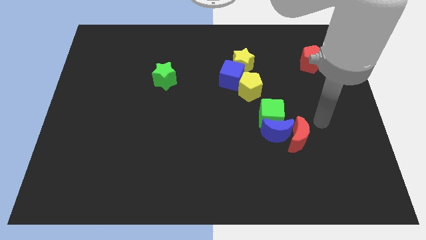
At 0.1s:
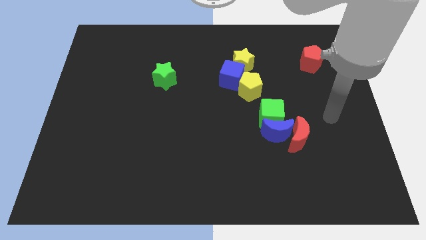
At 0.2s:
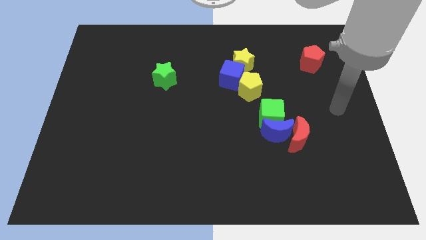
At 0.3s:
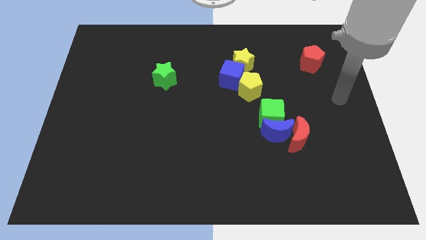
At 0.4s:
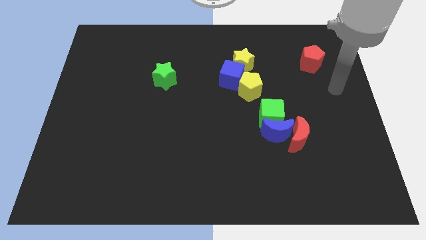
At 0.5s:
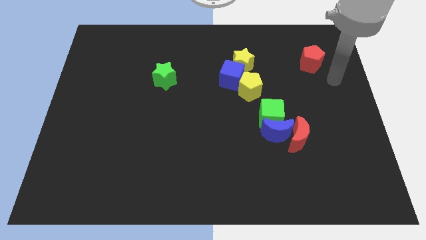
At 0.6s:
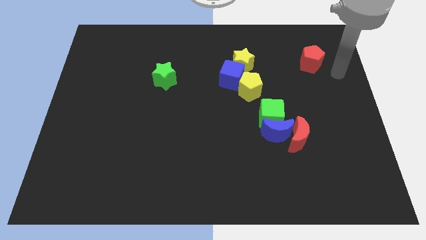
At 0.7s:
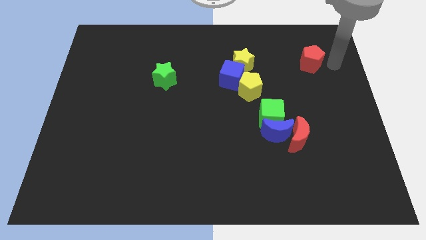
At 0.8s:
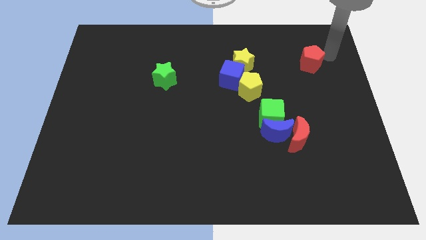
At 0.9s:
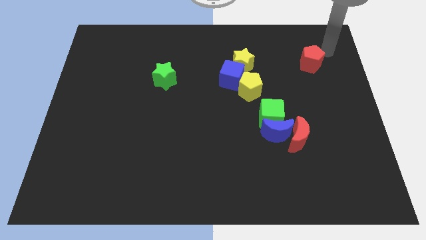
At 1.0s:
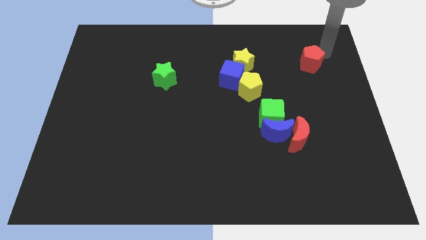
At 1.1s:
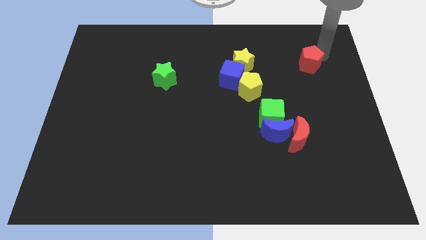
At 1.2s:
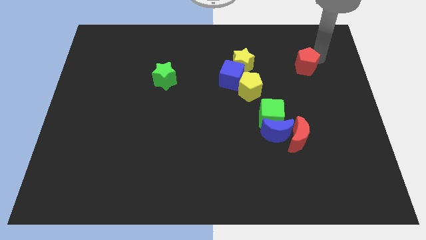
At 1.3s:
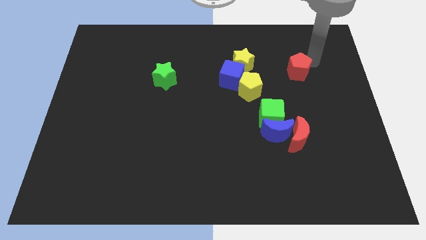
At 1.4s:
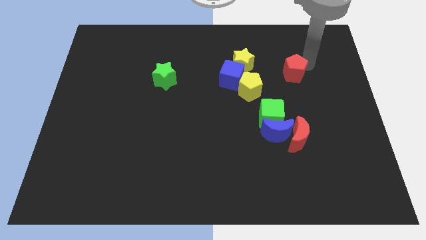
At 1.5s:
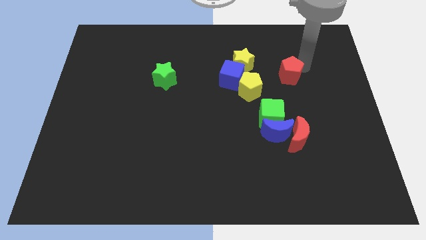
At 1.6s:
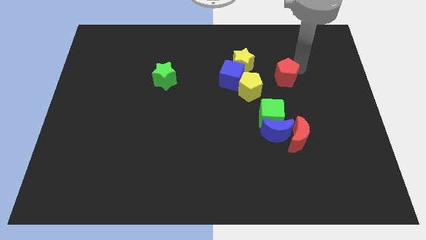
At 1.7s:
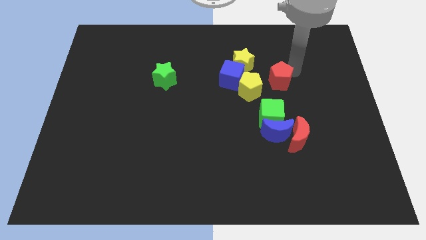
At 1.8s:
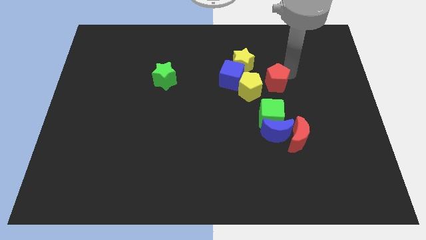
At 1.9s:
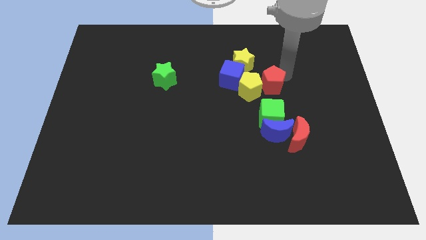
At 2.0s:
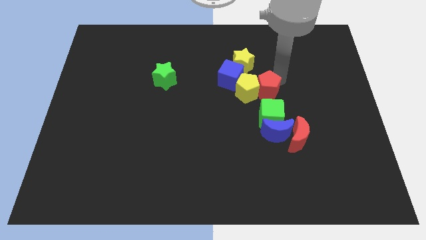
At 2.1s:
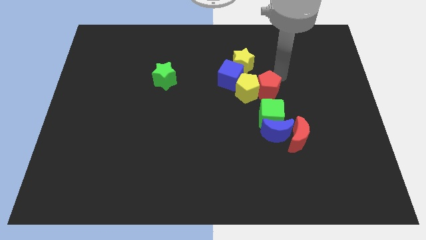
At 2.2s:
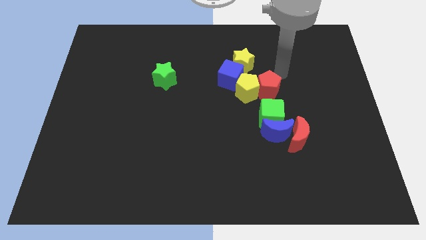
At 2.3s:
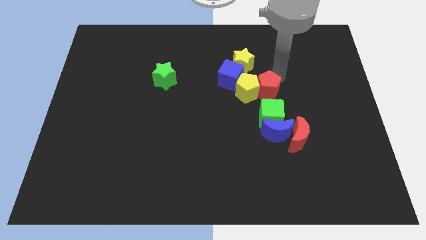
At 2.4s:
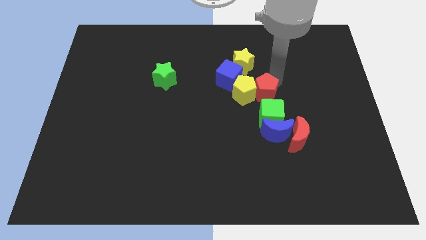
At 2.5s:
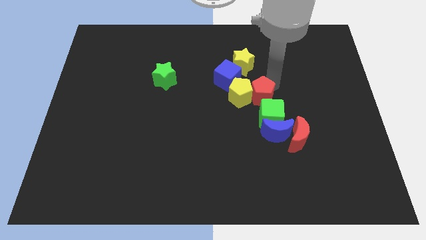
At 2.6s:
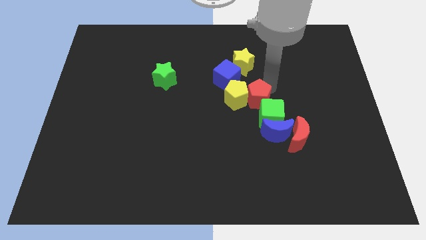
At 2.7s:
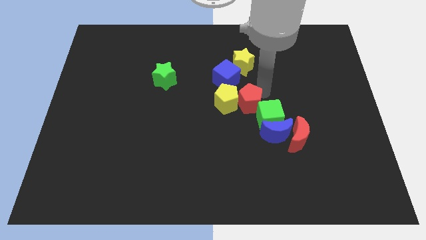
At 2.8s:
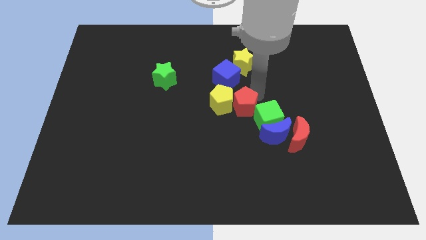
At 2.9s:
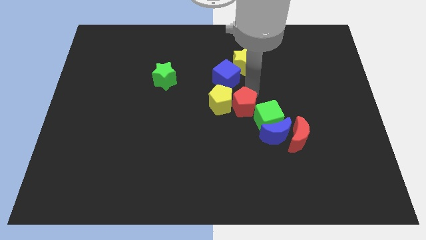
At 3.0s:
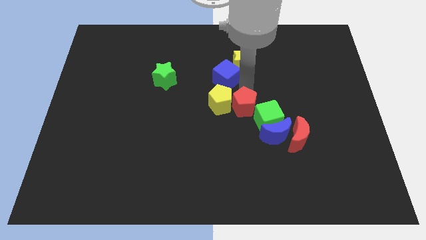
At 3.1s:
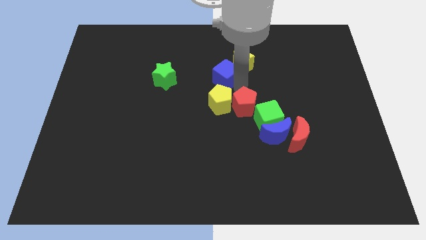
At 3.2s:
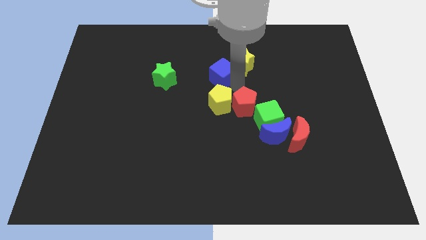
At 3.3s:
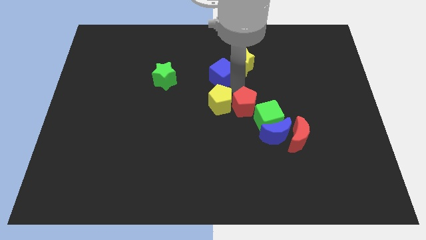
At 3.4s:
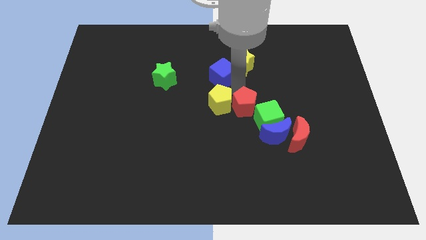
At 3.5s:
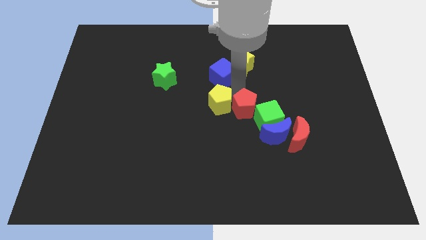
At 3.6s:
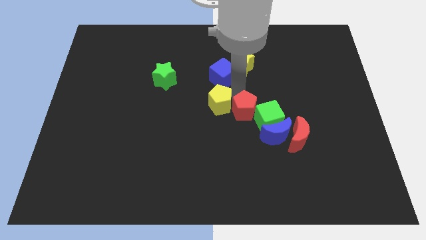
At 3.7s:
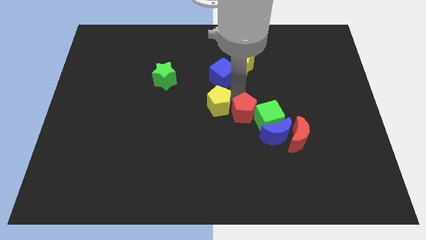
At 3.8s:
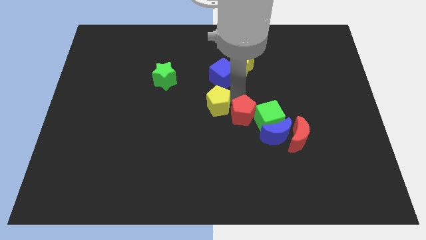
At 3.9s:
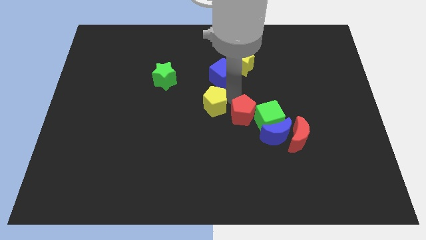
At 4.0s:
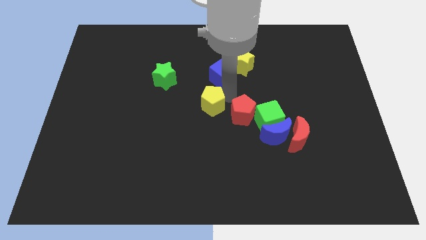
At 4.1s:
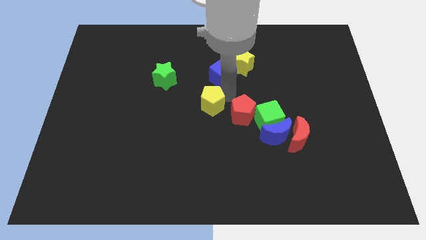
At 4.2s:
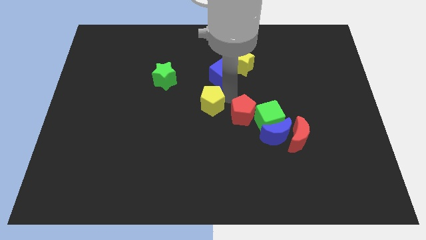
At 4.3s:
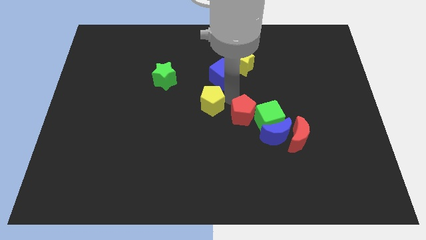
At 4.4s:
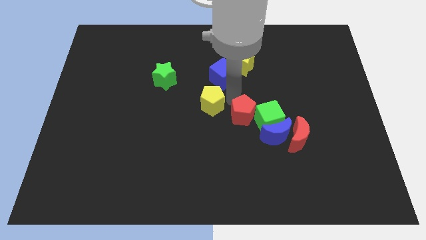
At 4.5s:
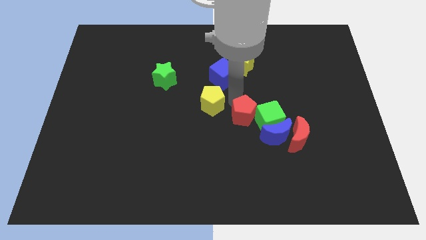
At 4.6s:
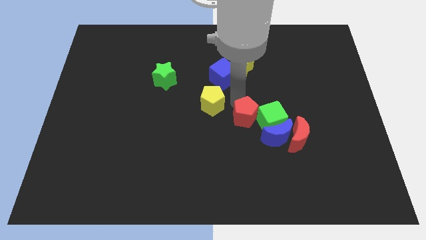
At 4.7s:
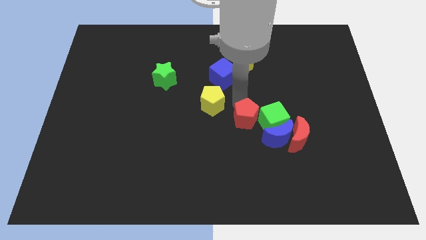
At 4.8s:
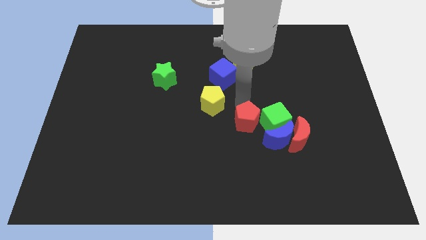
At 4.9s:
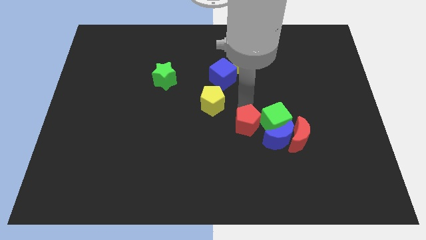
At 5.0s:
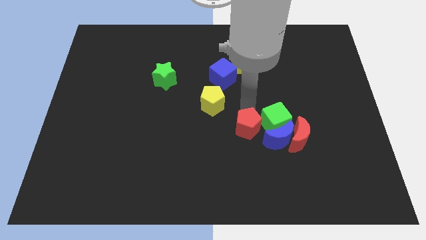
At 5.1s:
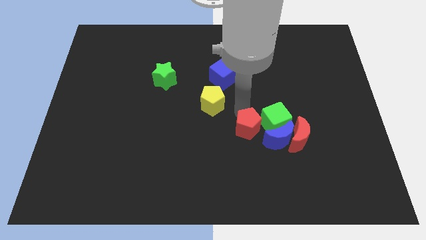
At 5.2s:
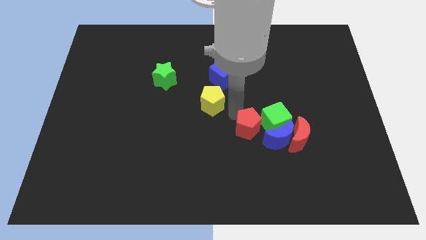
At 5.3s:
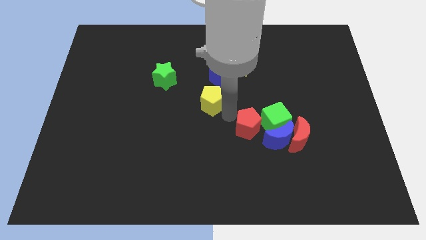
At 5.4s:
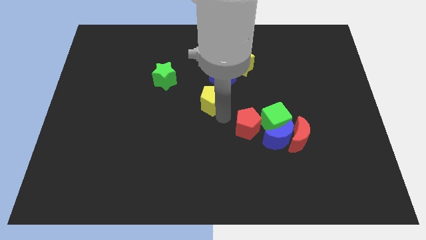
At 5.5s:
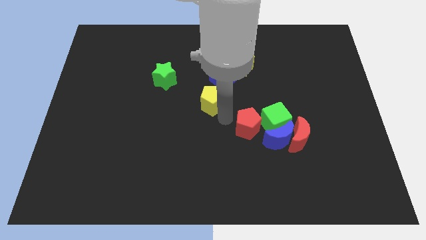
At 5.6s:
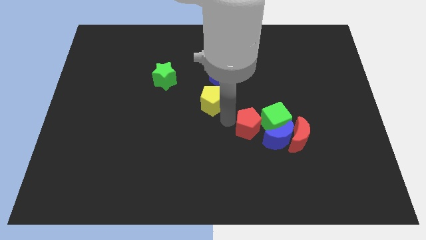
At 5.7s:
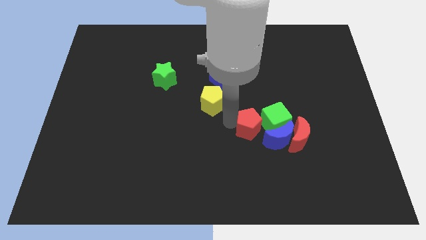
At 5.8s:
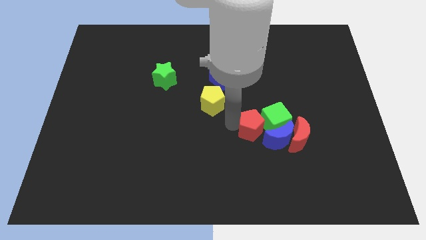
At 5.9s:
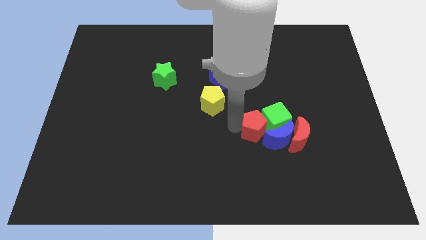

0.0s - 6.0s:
put the red pentagon to the blue moon

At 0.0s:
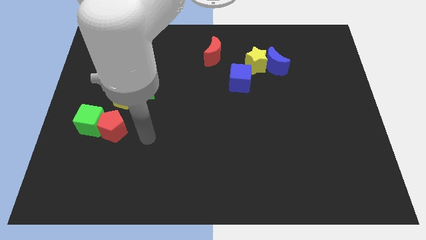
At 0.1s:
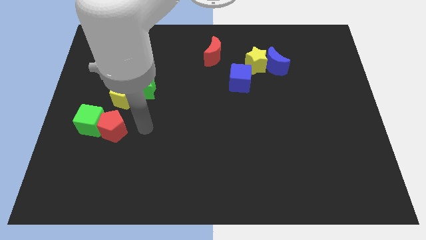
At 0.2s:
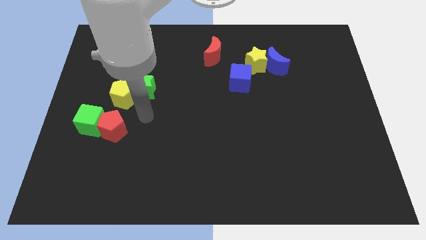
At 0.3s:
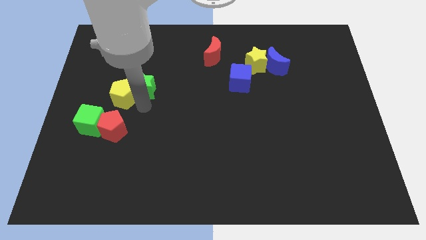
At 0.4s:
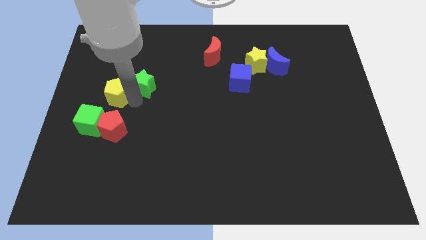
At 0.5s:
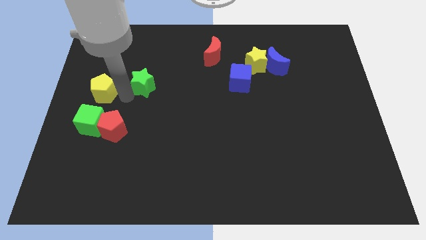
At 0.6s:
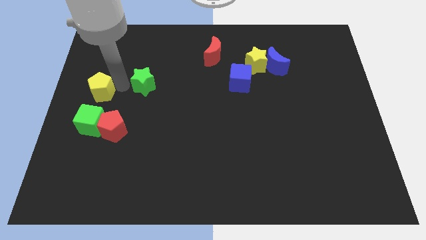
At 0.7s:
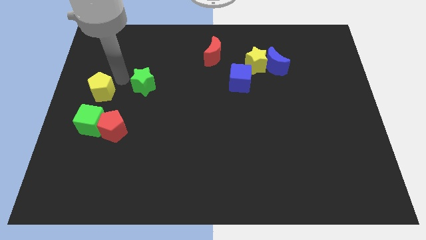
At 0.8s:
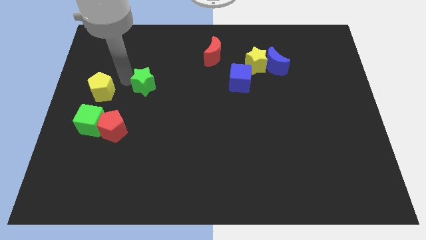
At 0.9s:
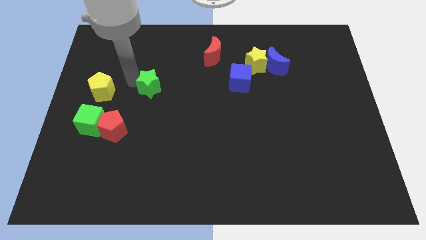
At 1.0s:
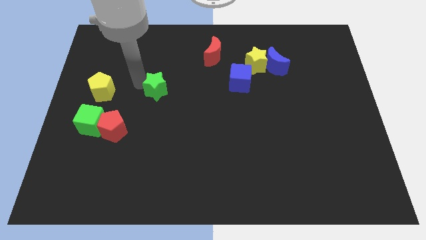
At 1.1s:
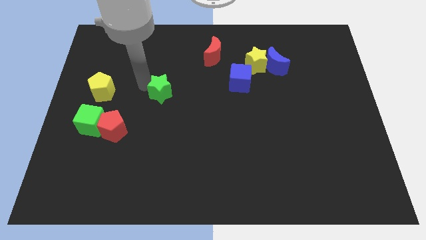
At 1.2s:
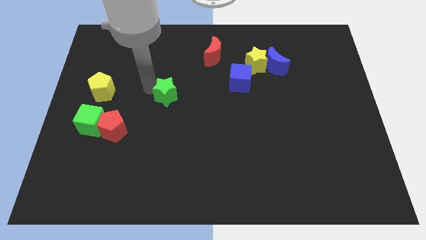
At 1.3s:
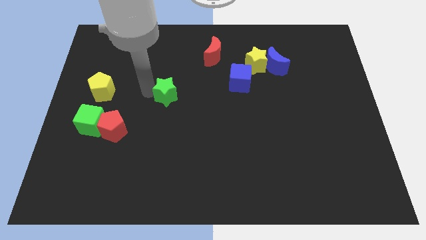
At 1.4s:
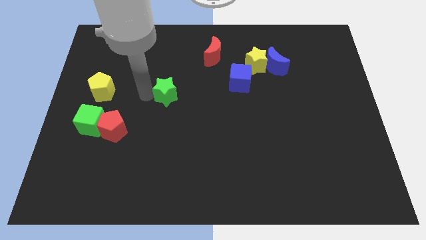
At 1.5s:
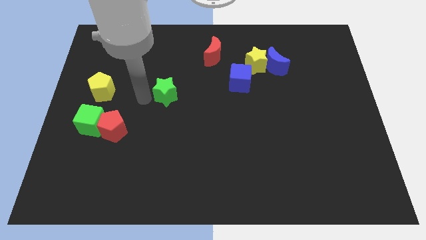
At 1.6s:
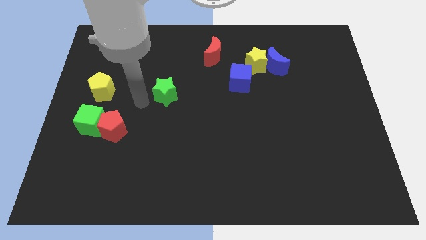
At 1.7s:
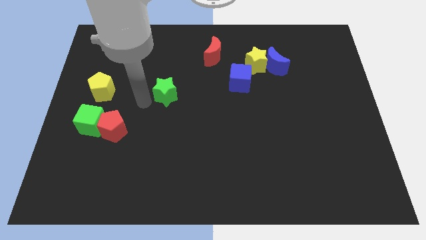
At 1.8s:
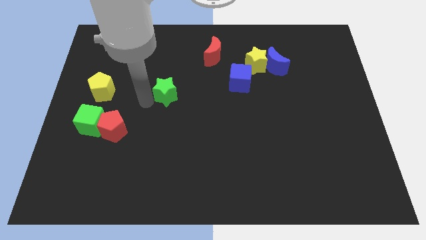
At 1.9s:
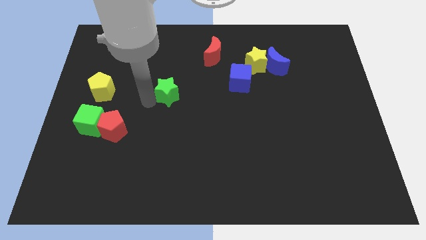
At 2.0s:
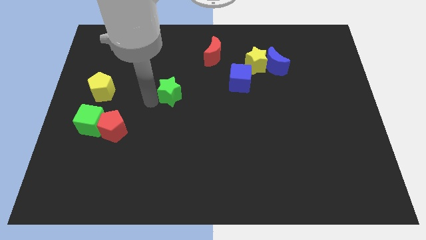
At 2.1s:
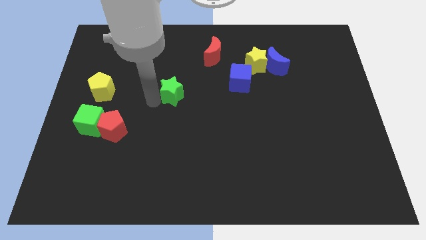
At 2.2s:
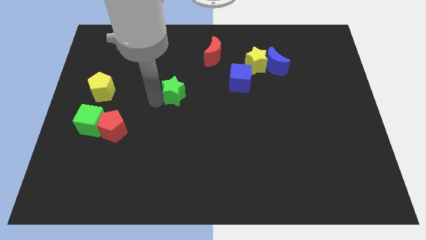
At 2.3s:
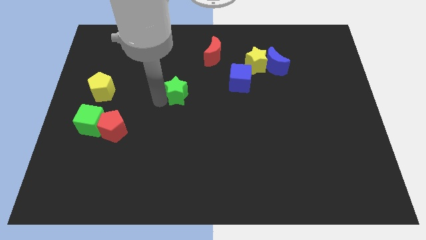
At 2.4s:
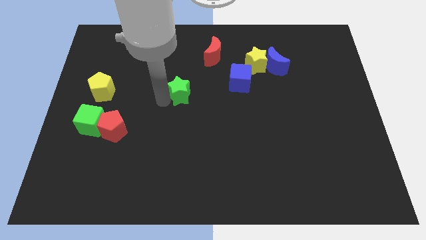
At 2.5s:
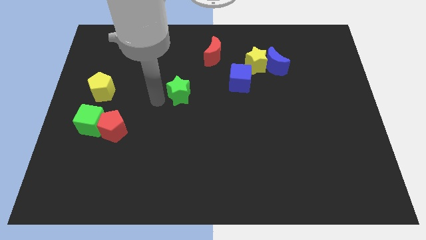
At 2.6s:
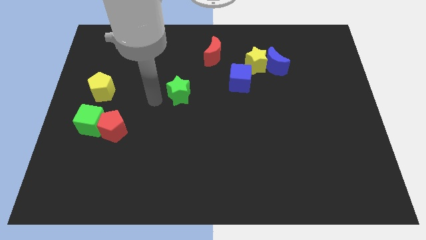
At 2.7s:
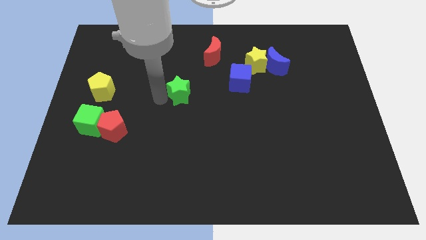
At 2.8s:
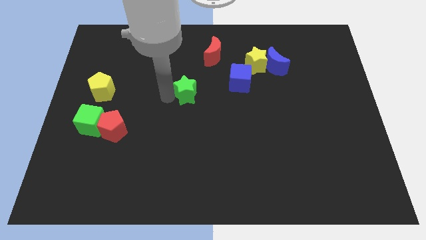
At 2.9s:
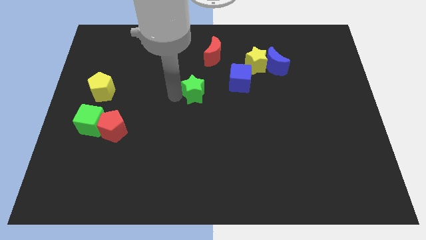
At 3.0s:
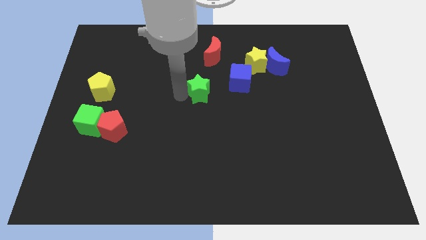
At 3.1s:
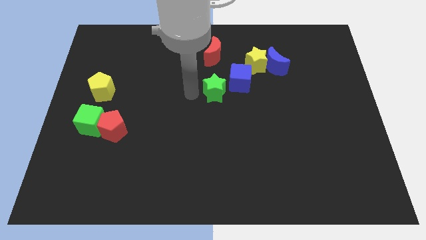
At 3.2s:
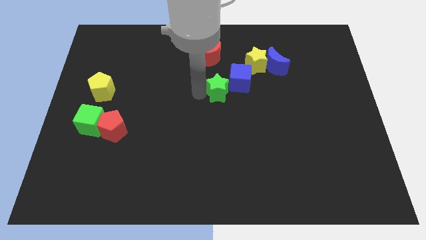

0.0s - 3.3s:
slide the green star to the blue cube
